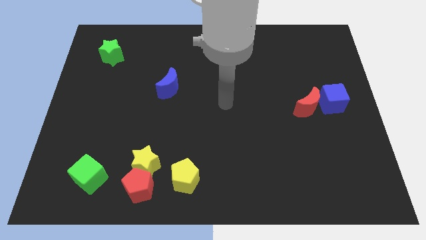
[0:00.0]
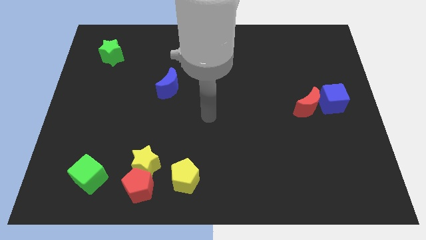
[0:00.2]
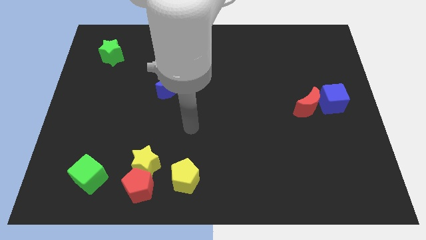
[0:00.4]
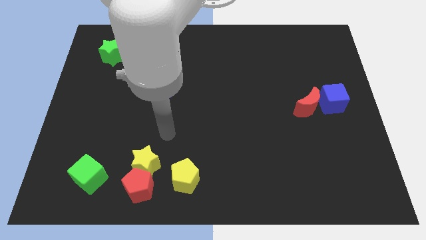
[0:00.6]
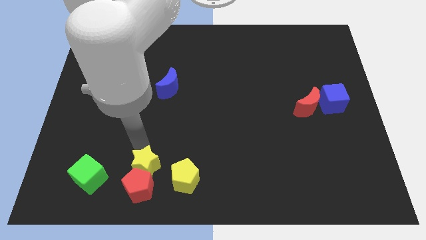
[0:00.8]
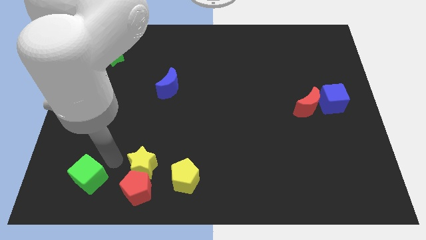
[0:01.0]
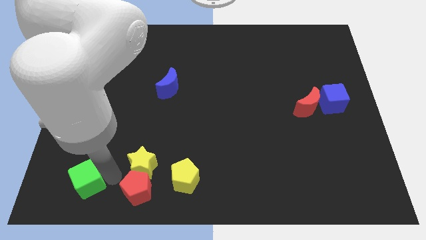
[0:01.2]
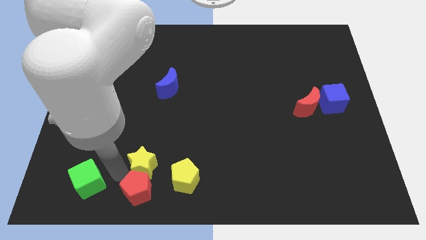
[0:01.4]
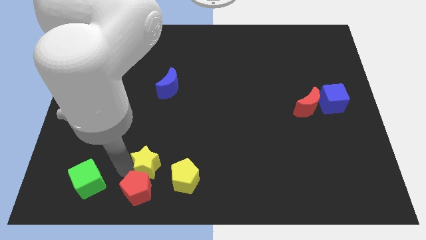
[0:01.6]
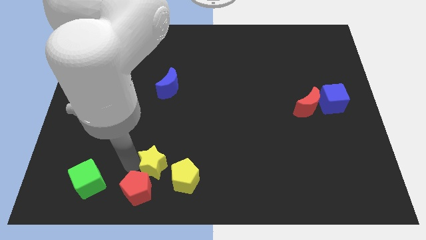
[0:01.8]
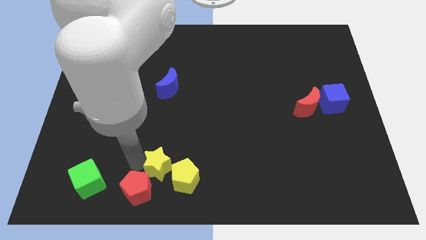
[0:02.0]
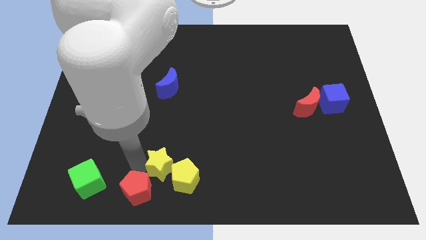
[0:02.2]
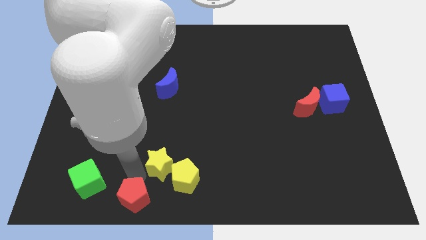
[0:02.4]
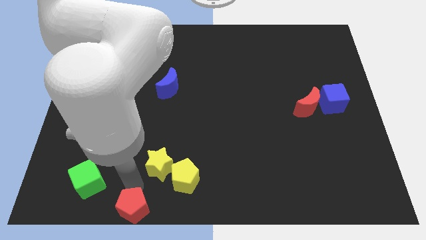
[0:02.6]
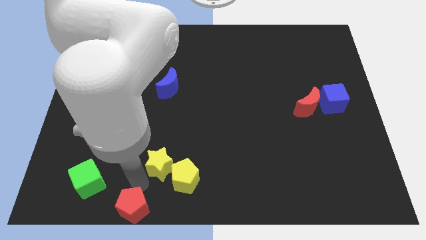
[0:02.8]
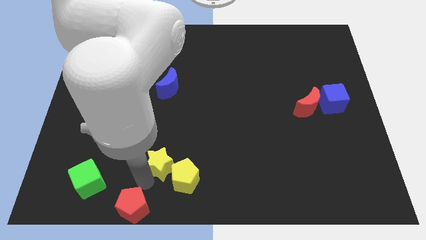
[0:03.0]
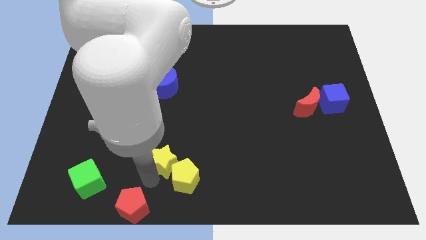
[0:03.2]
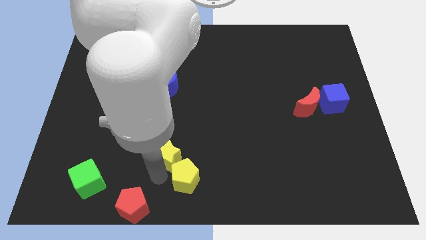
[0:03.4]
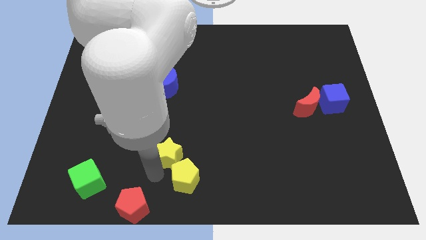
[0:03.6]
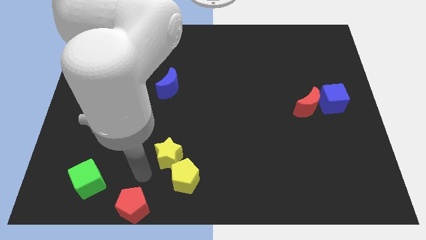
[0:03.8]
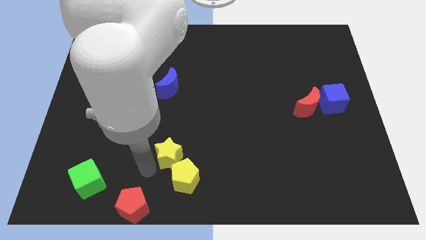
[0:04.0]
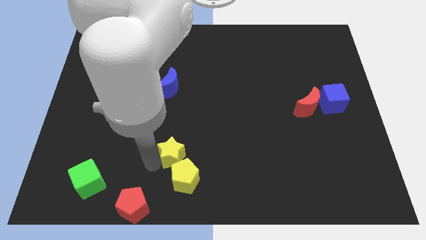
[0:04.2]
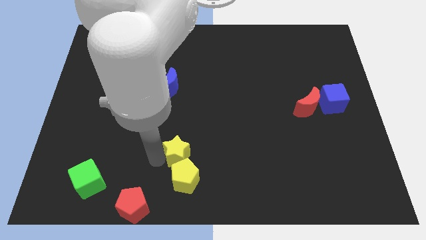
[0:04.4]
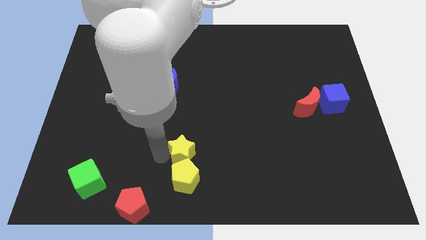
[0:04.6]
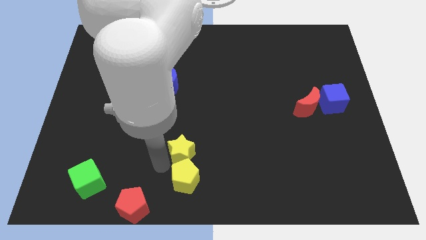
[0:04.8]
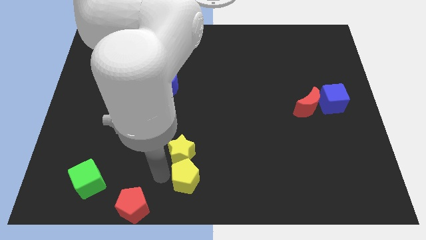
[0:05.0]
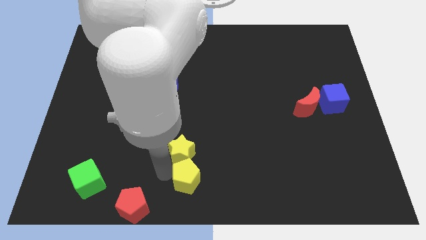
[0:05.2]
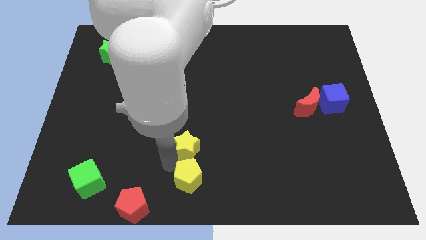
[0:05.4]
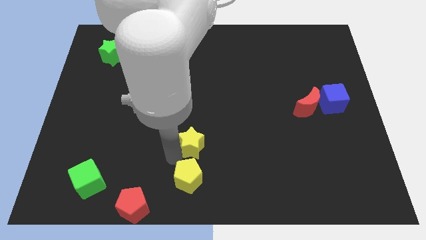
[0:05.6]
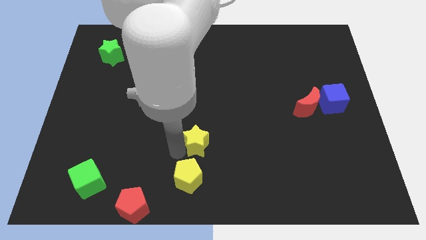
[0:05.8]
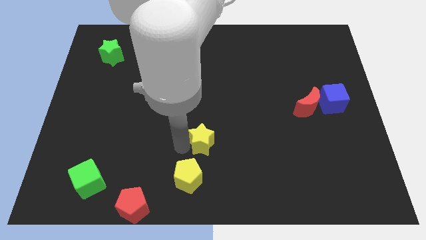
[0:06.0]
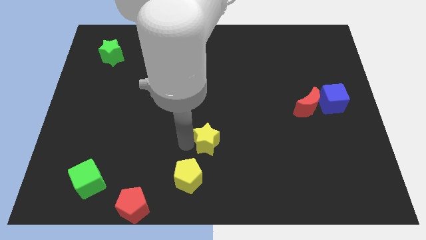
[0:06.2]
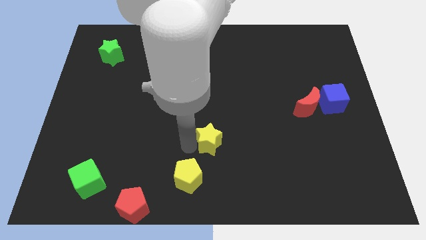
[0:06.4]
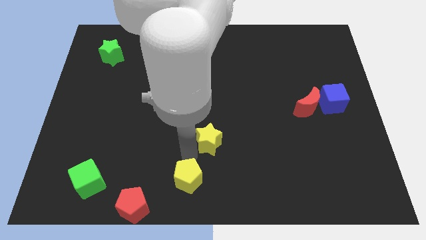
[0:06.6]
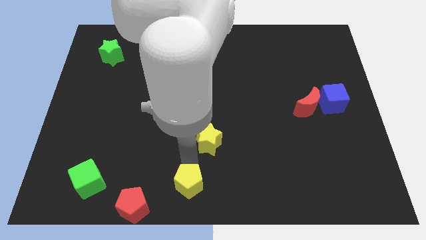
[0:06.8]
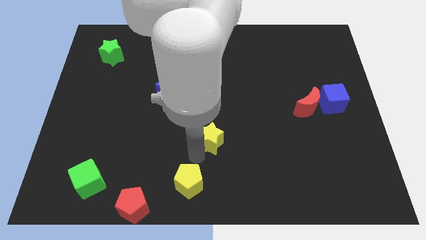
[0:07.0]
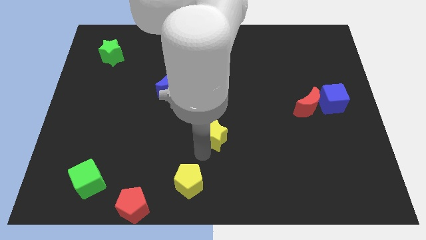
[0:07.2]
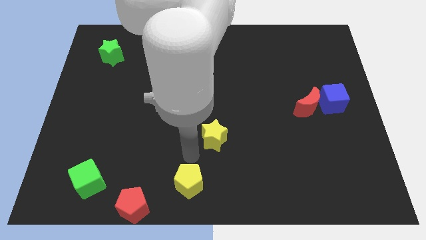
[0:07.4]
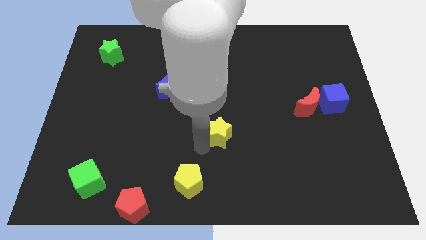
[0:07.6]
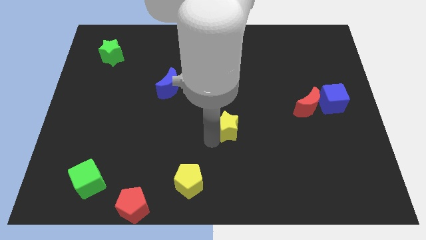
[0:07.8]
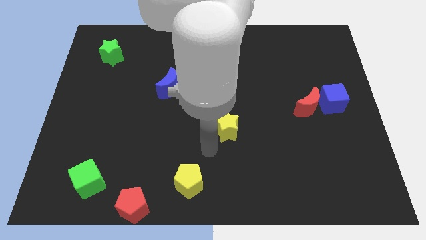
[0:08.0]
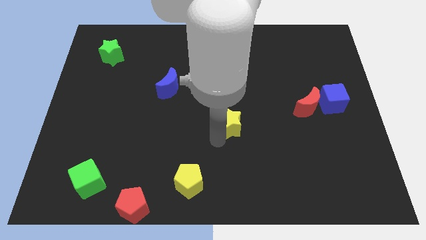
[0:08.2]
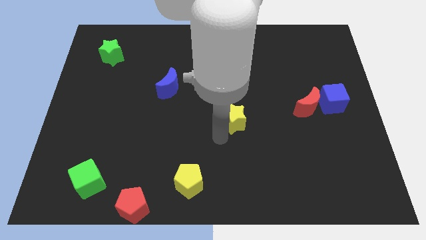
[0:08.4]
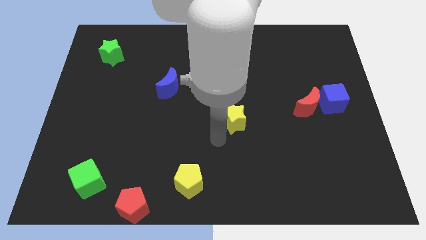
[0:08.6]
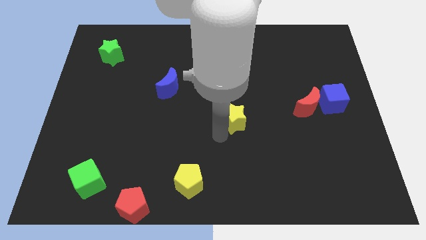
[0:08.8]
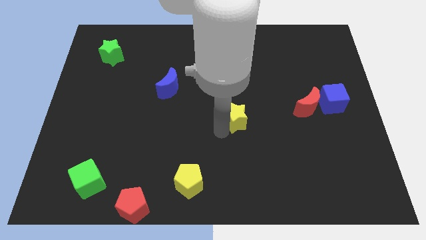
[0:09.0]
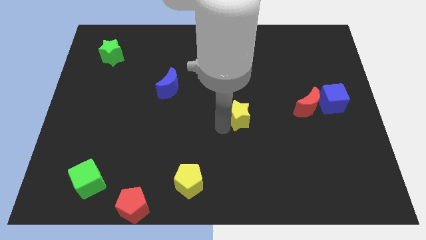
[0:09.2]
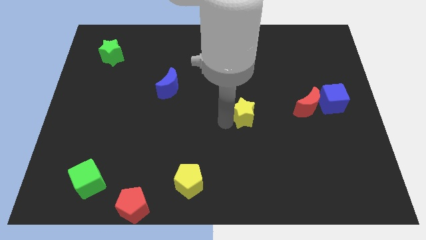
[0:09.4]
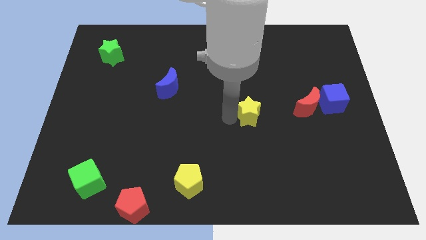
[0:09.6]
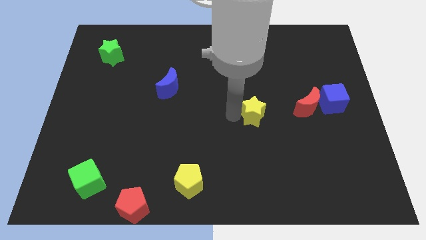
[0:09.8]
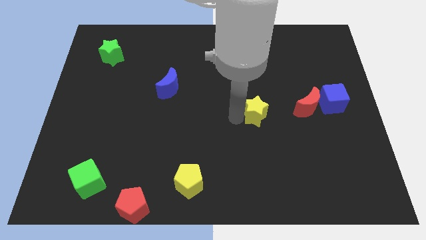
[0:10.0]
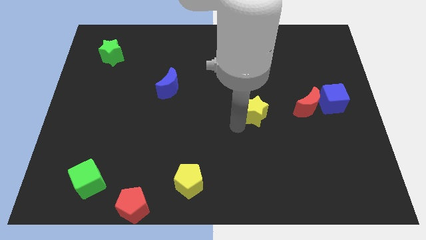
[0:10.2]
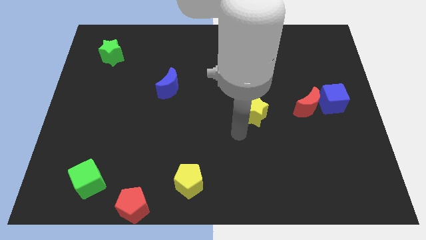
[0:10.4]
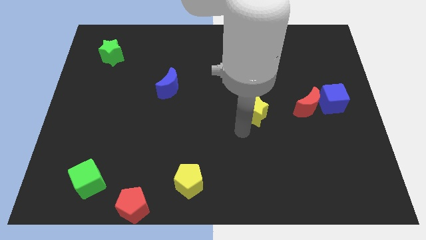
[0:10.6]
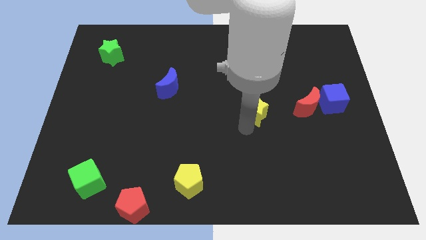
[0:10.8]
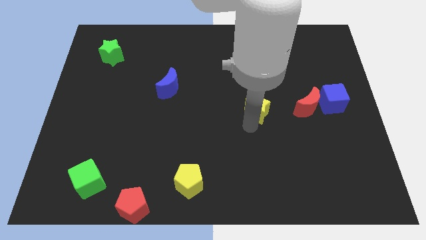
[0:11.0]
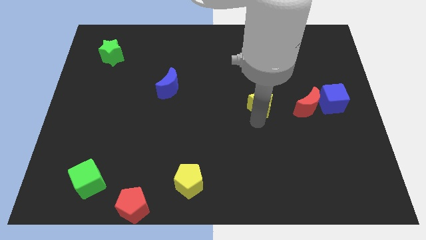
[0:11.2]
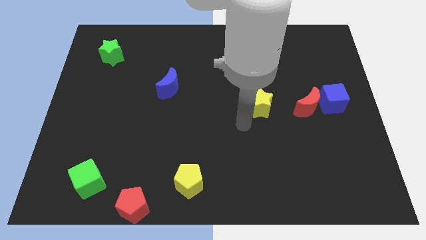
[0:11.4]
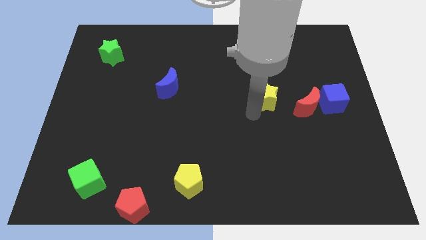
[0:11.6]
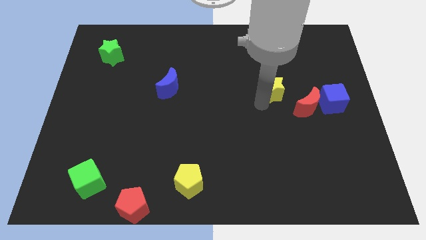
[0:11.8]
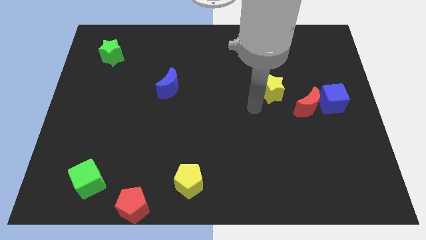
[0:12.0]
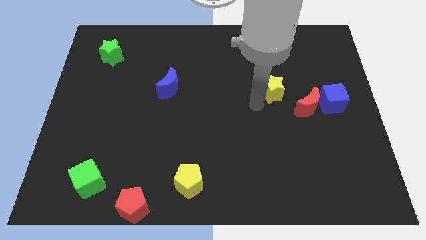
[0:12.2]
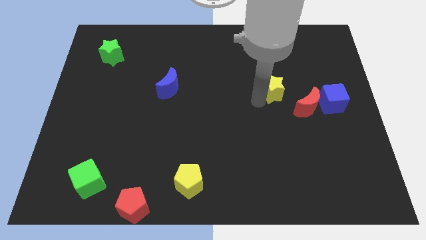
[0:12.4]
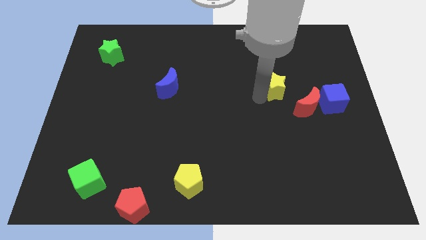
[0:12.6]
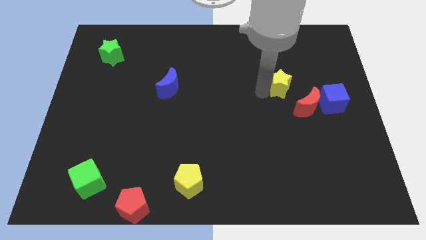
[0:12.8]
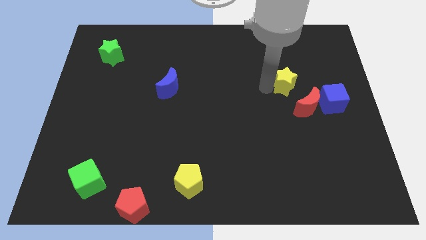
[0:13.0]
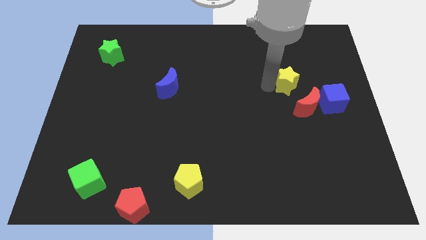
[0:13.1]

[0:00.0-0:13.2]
move the yellow star above the red moon

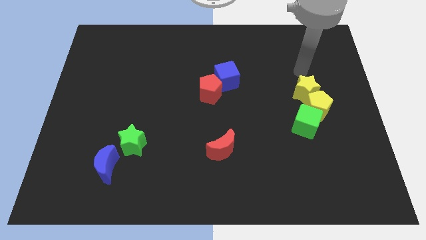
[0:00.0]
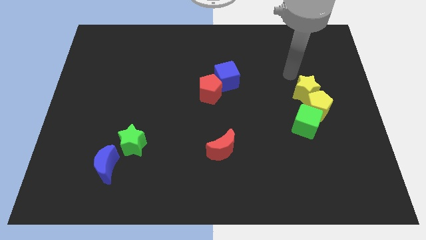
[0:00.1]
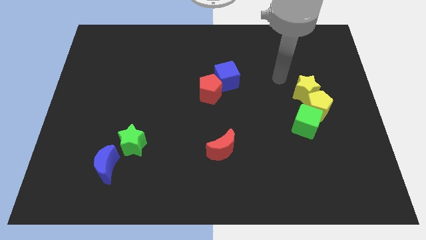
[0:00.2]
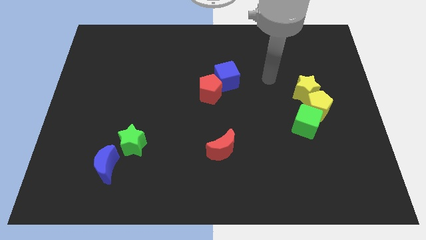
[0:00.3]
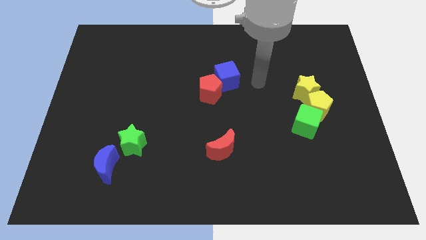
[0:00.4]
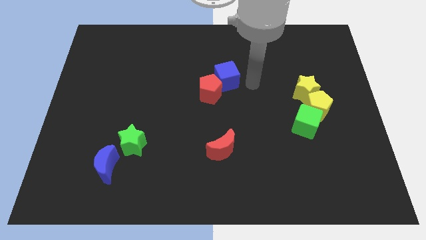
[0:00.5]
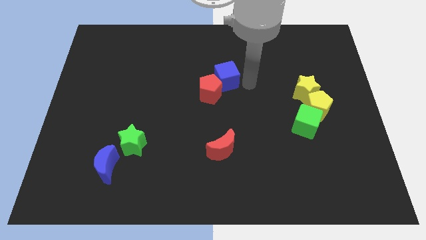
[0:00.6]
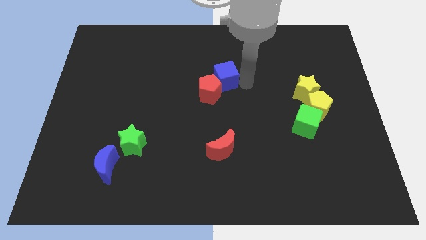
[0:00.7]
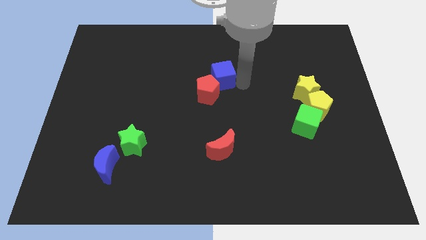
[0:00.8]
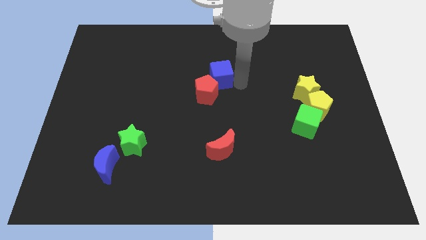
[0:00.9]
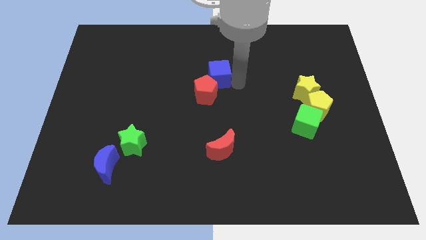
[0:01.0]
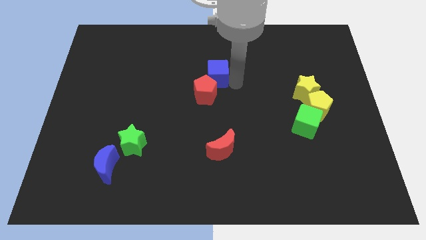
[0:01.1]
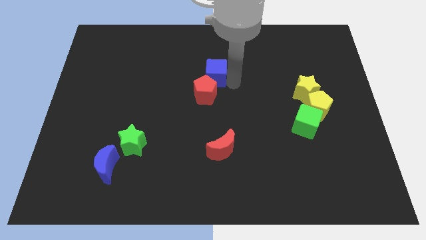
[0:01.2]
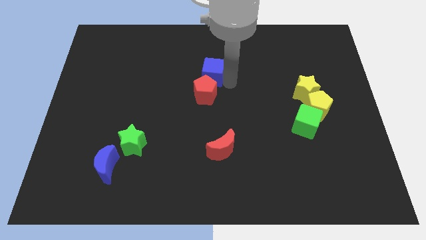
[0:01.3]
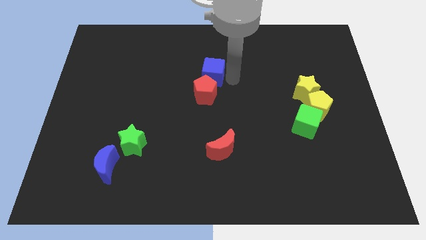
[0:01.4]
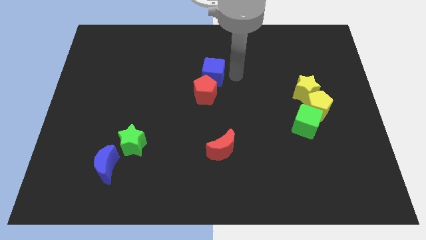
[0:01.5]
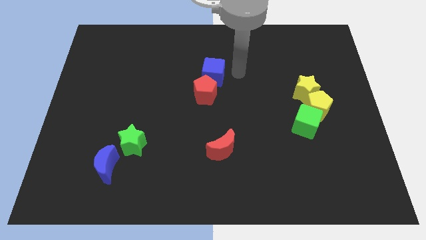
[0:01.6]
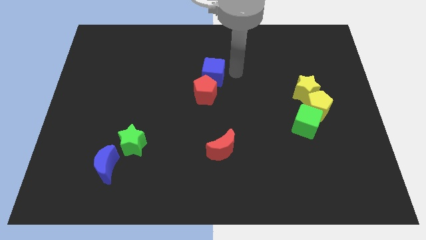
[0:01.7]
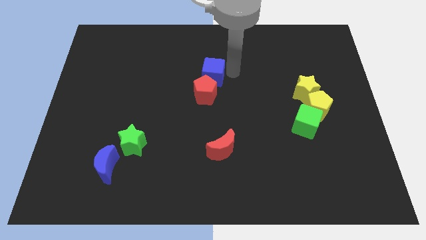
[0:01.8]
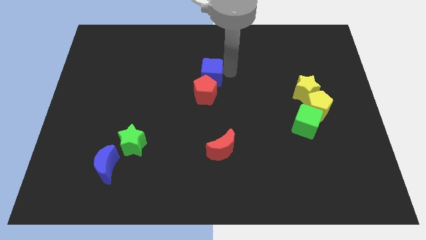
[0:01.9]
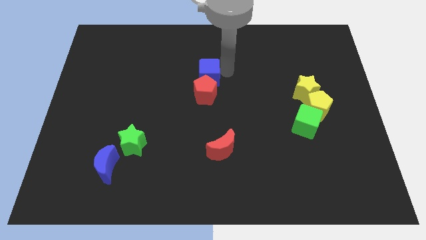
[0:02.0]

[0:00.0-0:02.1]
put the blue cube to the top left side of the red pentagon
